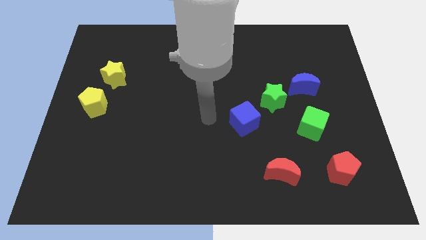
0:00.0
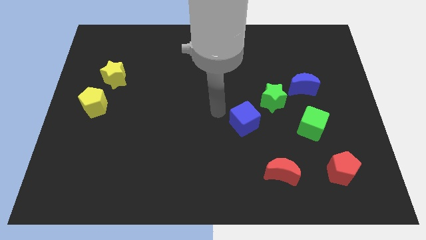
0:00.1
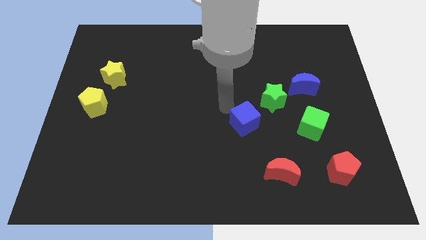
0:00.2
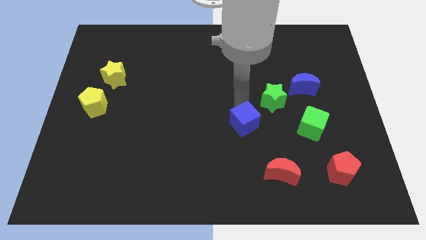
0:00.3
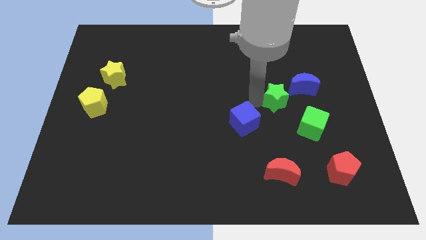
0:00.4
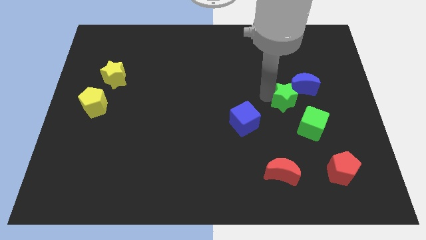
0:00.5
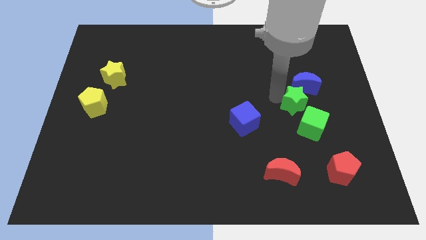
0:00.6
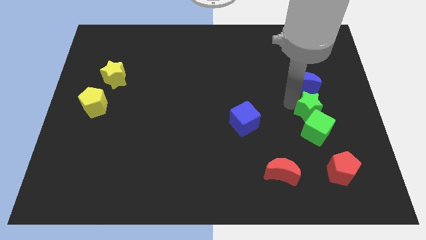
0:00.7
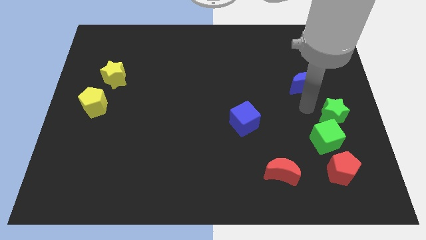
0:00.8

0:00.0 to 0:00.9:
move the blue moon away from the green star

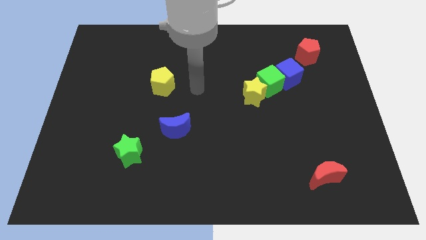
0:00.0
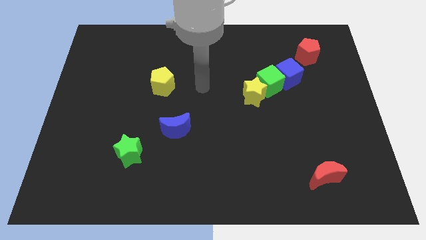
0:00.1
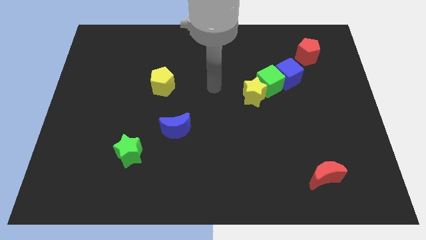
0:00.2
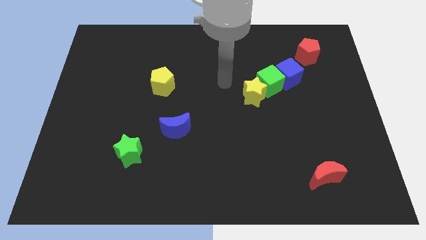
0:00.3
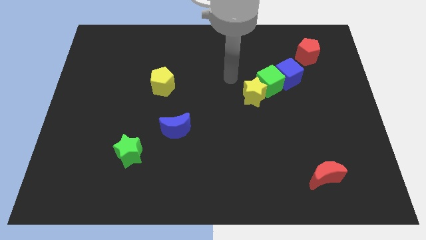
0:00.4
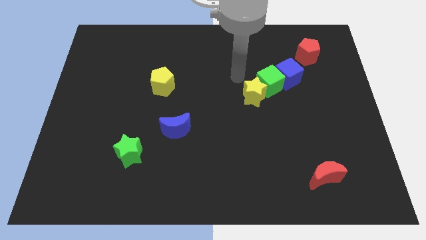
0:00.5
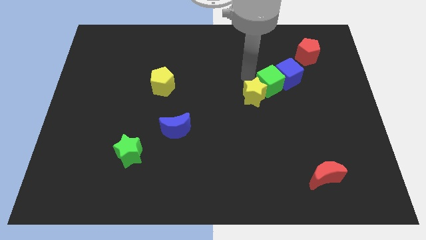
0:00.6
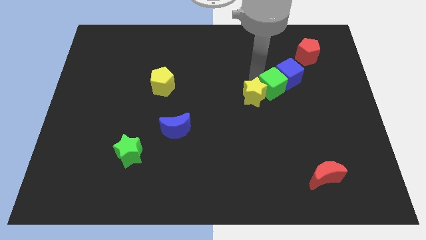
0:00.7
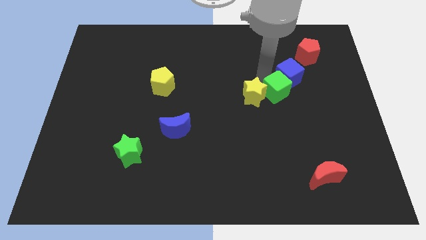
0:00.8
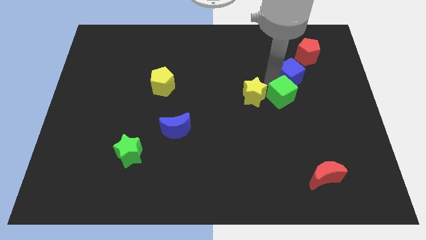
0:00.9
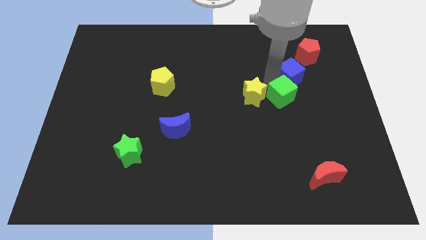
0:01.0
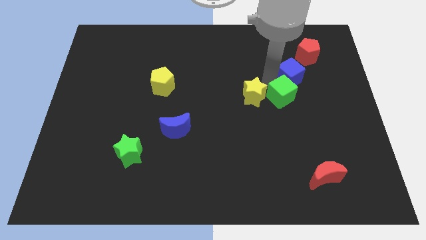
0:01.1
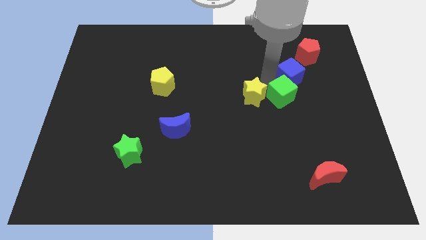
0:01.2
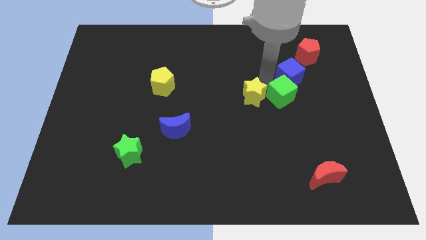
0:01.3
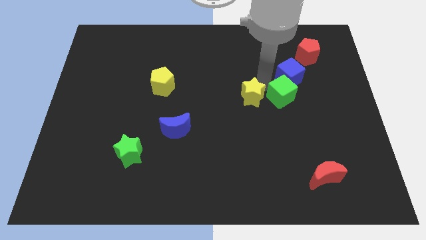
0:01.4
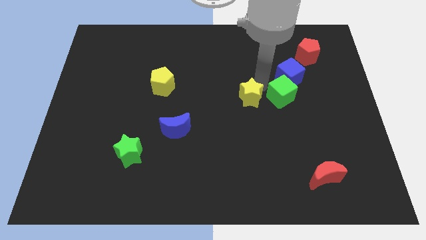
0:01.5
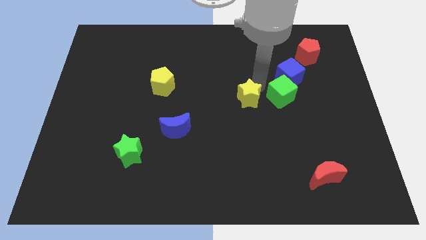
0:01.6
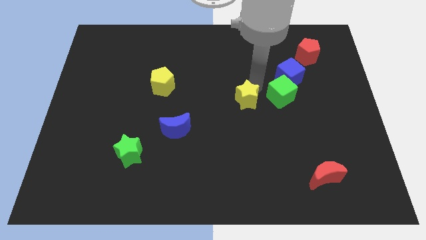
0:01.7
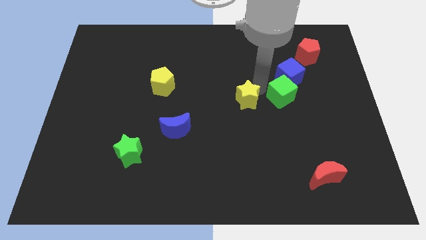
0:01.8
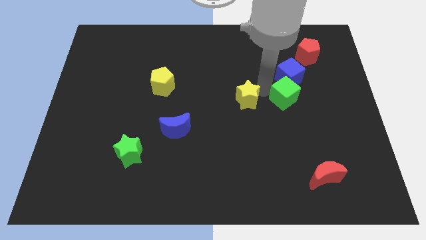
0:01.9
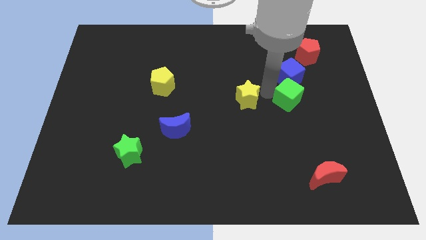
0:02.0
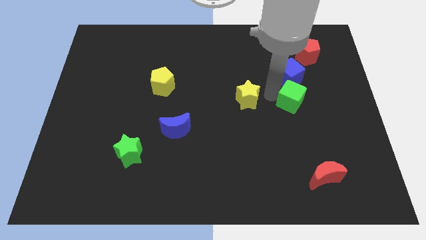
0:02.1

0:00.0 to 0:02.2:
move the yellow star away from the green cube

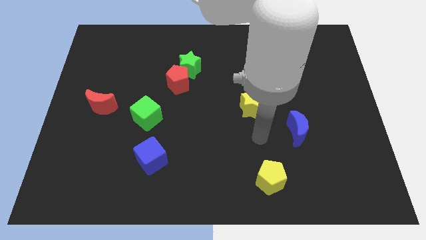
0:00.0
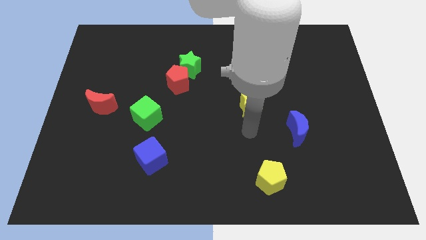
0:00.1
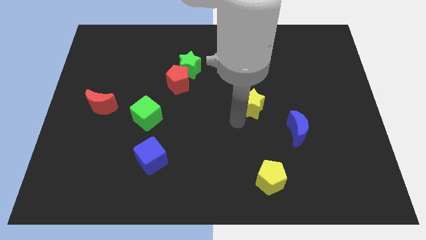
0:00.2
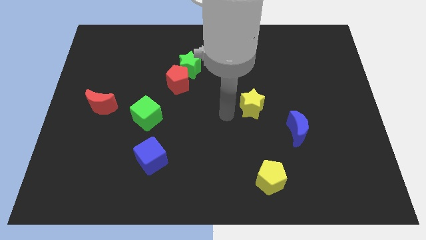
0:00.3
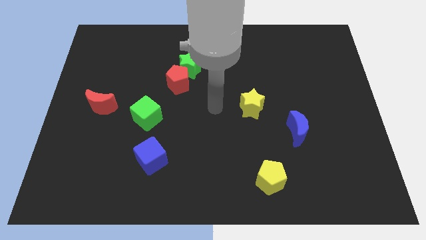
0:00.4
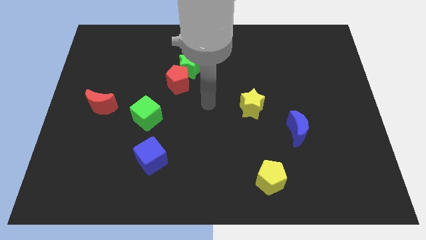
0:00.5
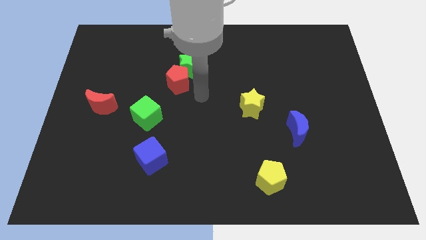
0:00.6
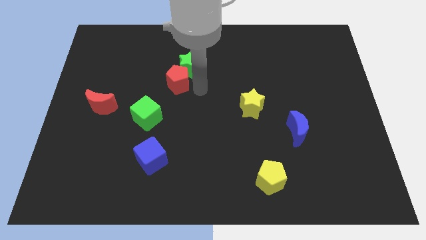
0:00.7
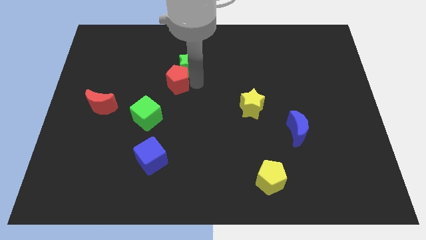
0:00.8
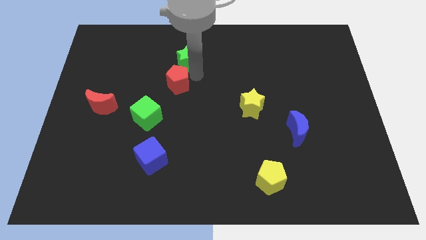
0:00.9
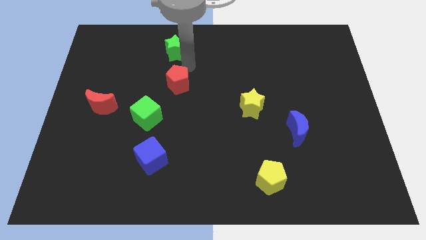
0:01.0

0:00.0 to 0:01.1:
separate the red pentagon from the green star

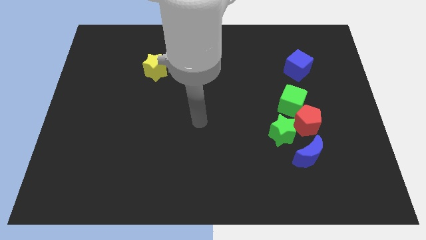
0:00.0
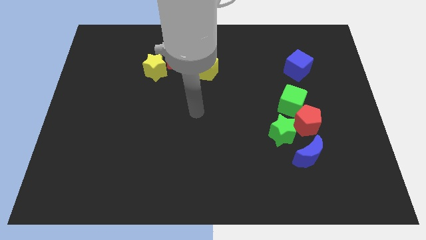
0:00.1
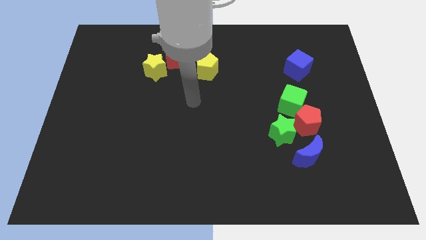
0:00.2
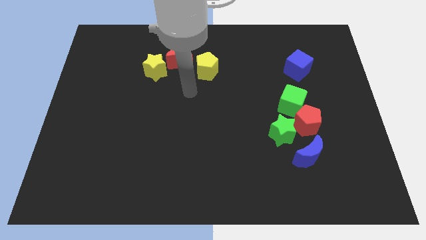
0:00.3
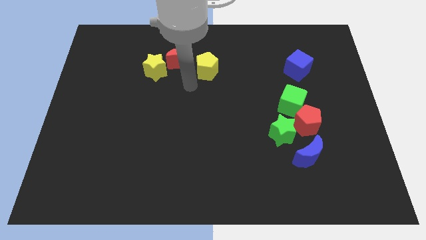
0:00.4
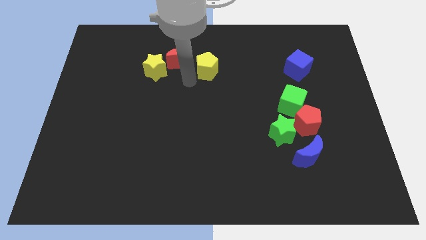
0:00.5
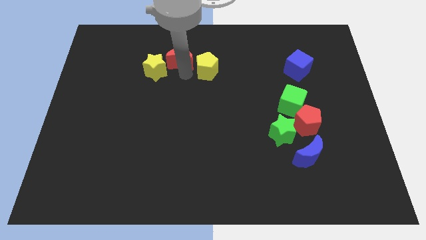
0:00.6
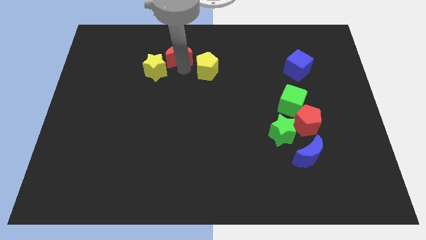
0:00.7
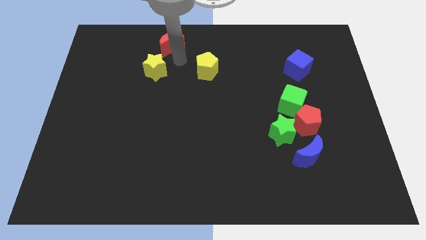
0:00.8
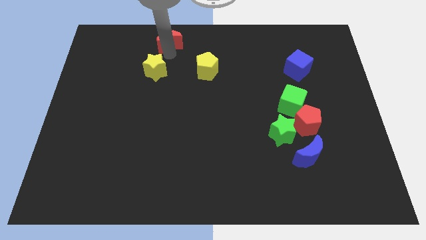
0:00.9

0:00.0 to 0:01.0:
pull the yellow star apart from the red moon

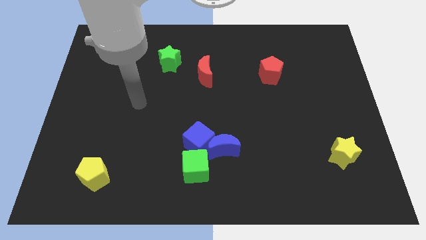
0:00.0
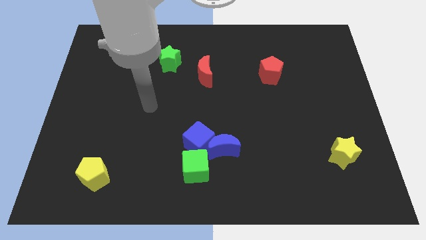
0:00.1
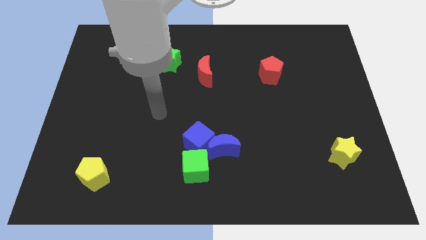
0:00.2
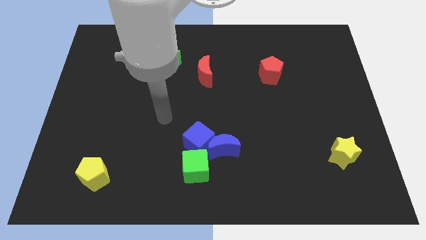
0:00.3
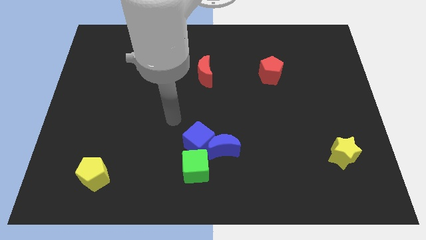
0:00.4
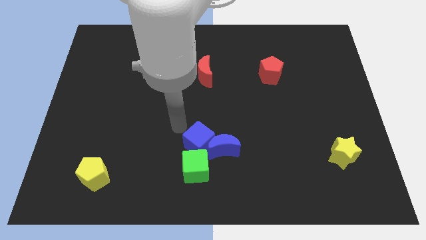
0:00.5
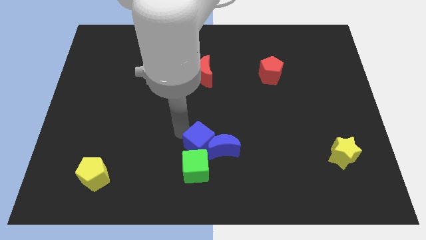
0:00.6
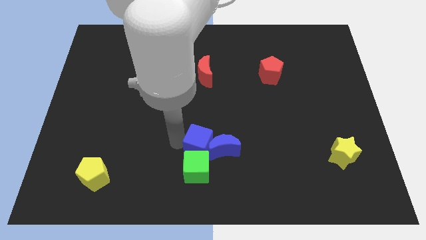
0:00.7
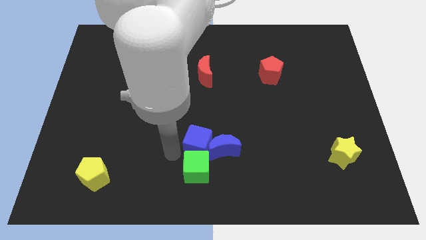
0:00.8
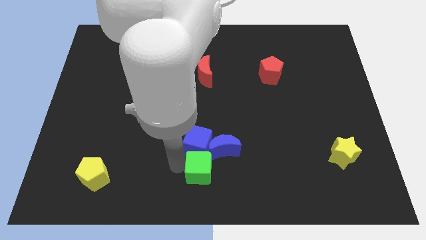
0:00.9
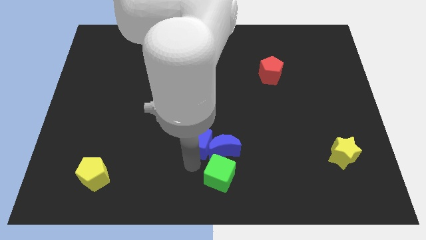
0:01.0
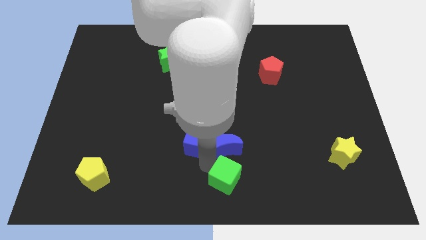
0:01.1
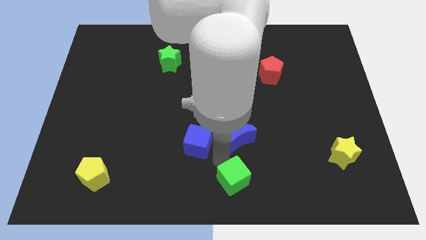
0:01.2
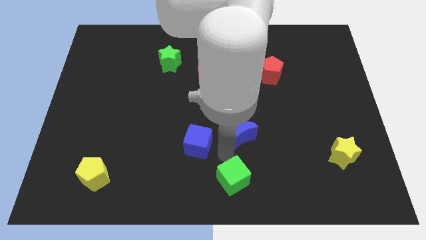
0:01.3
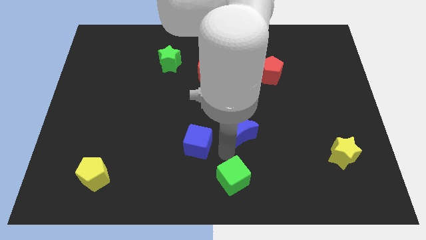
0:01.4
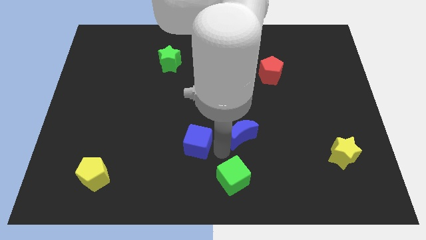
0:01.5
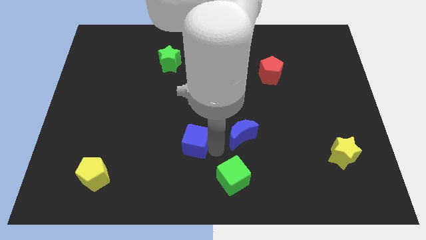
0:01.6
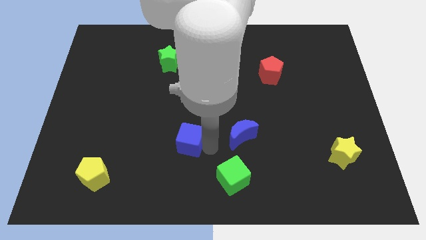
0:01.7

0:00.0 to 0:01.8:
move the blue cube away from the blue moon and green cube

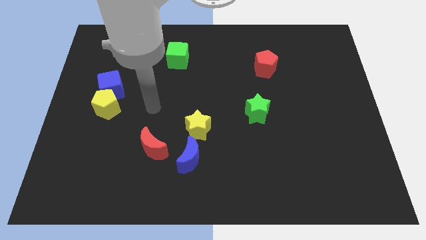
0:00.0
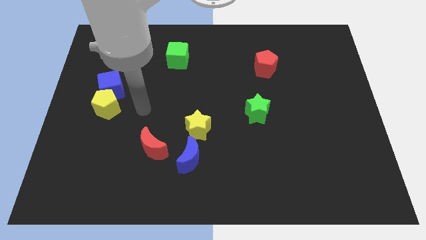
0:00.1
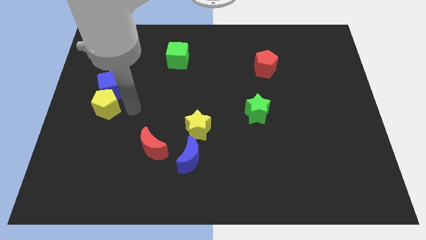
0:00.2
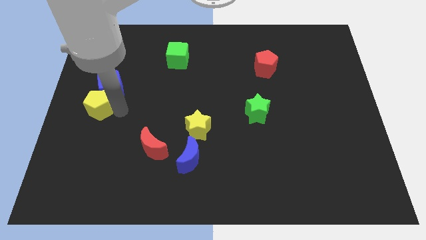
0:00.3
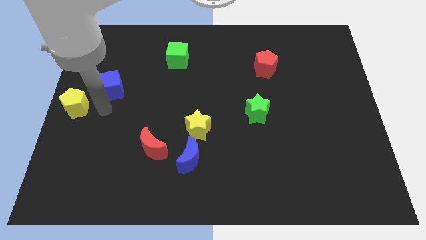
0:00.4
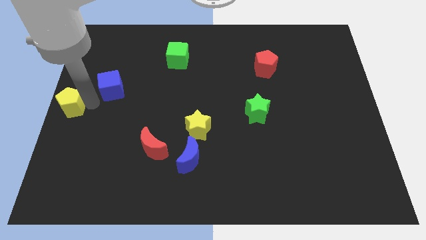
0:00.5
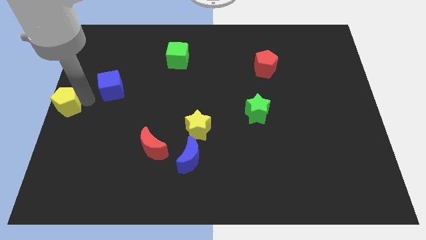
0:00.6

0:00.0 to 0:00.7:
move the blue cube away from the yellow pentagon

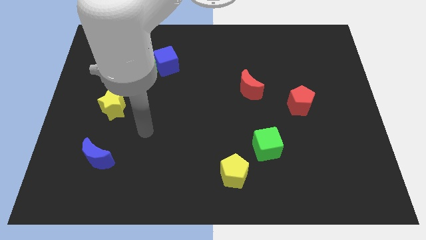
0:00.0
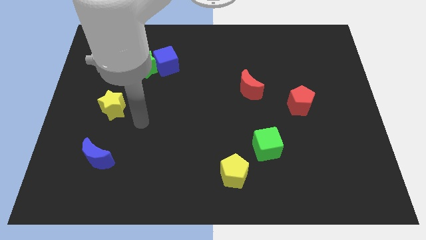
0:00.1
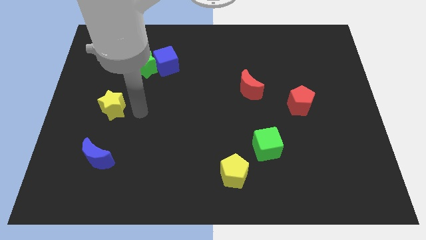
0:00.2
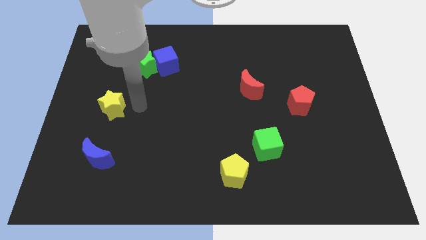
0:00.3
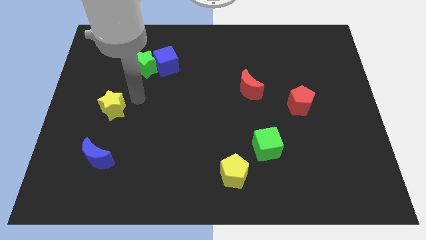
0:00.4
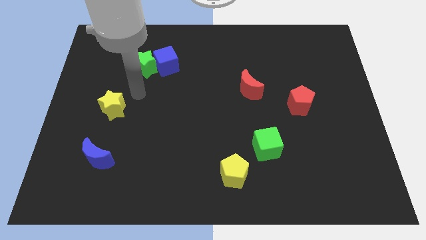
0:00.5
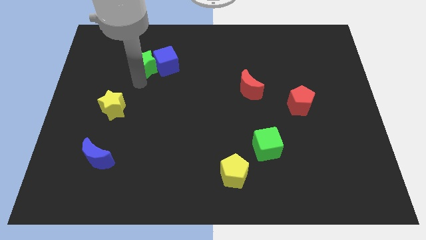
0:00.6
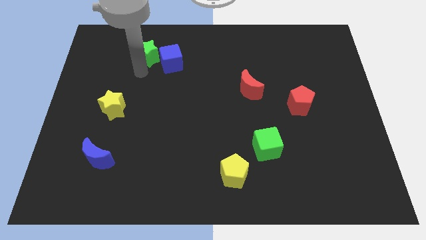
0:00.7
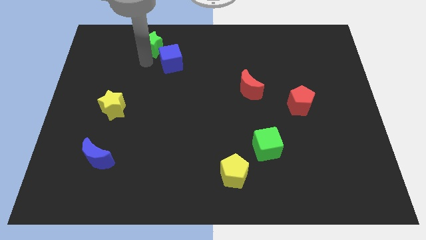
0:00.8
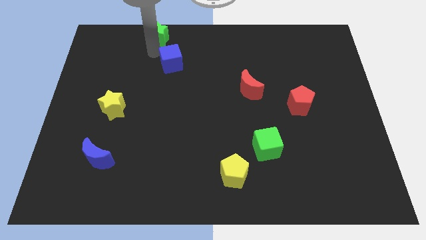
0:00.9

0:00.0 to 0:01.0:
separate the blue cube from the green star

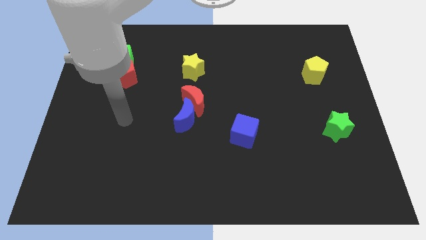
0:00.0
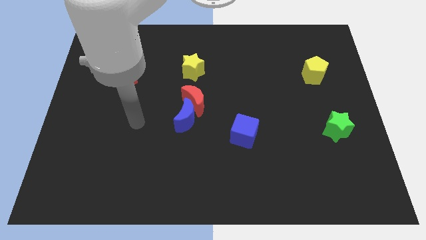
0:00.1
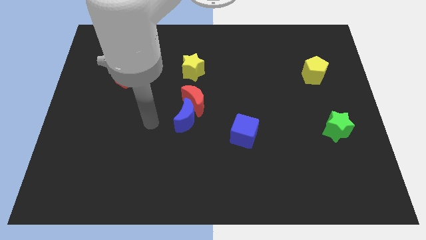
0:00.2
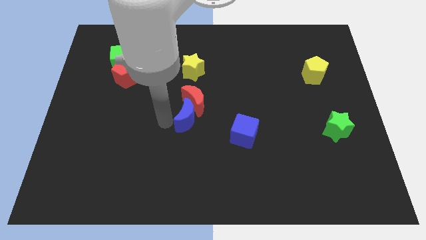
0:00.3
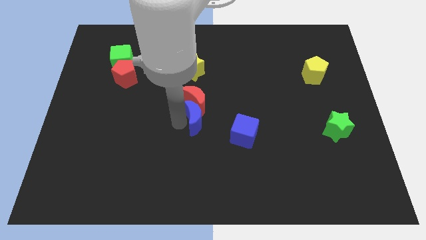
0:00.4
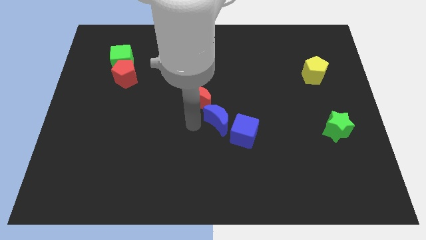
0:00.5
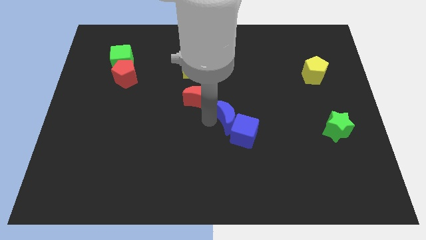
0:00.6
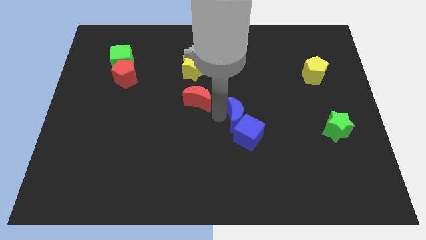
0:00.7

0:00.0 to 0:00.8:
separate the red moon from the blue moon
